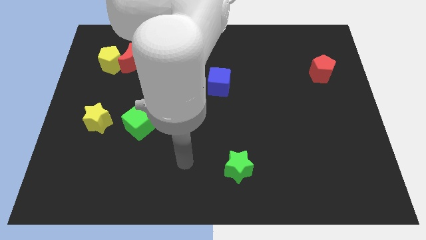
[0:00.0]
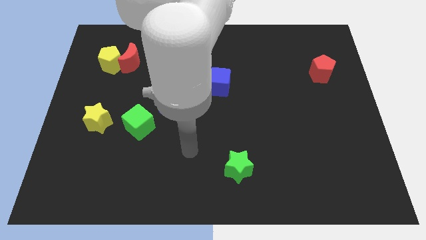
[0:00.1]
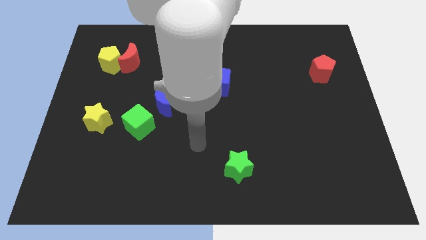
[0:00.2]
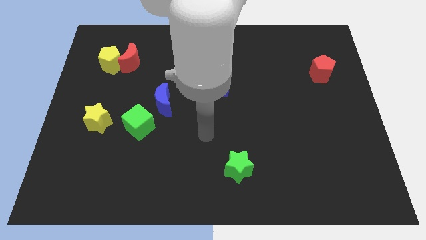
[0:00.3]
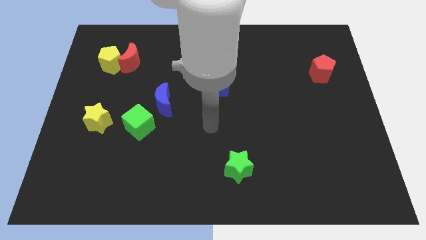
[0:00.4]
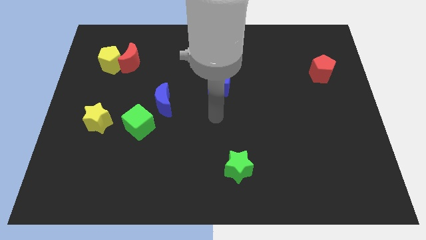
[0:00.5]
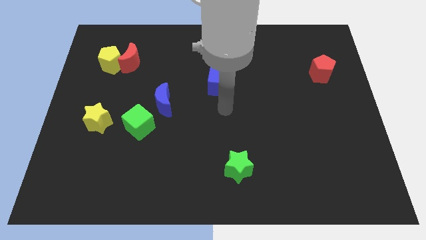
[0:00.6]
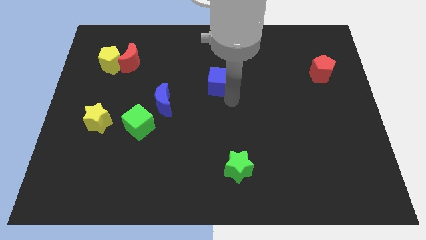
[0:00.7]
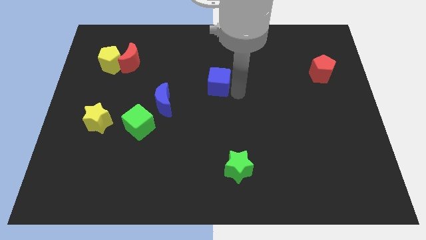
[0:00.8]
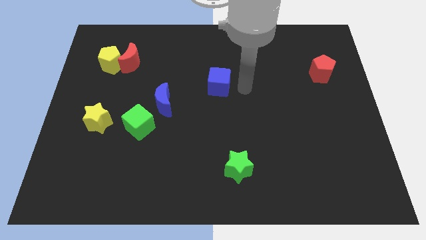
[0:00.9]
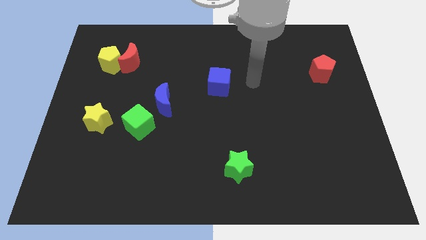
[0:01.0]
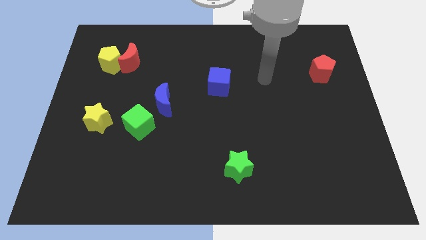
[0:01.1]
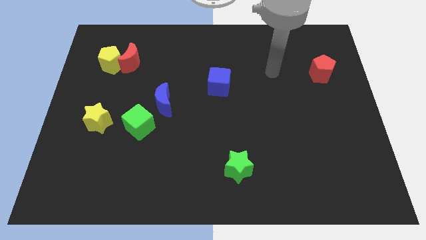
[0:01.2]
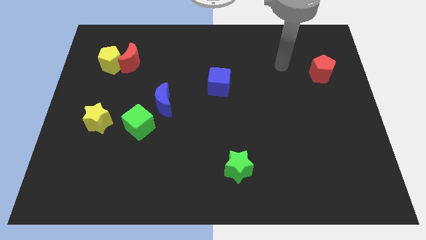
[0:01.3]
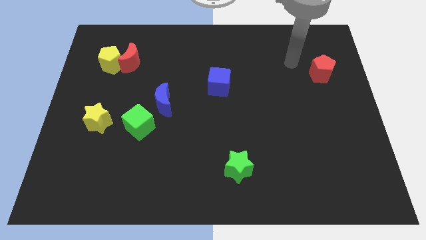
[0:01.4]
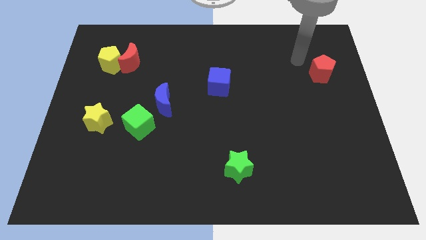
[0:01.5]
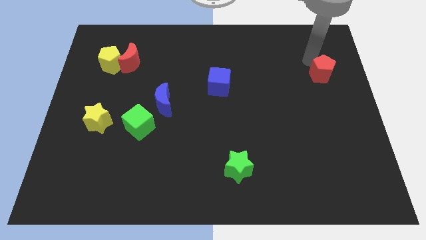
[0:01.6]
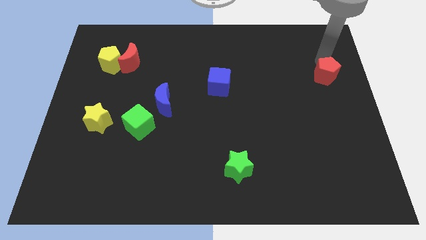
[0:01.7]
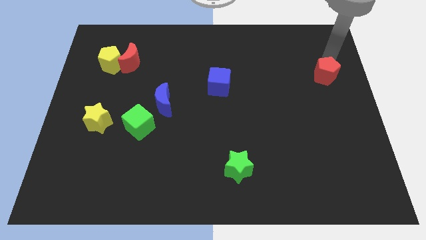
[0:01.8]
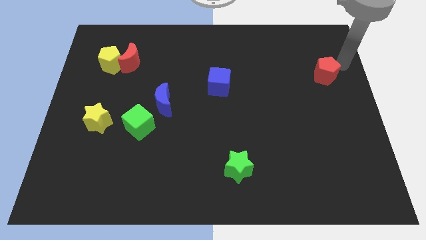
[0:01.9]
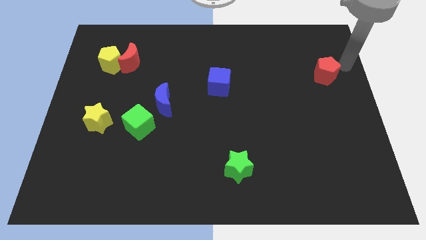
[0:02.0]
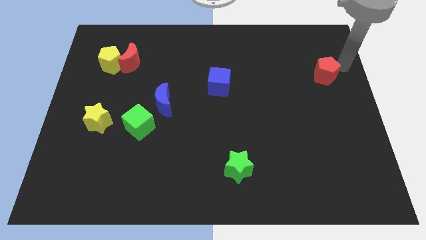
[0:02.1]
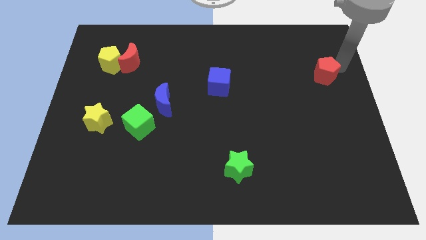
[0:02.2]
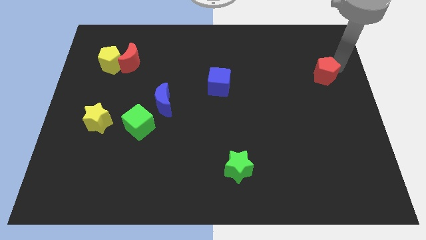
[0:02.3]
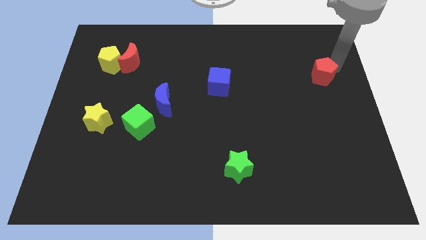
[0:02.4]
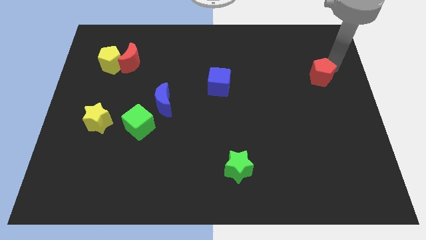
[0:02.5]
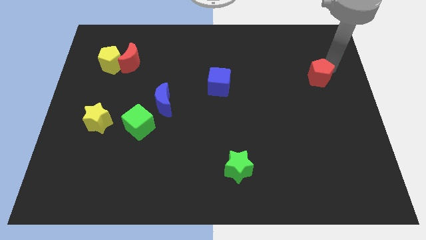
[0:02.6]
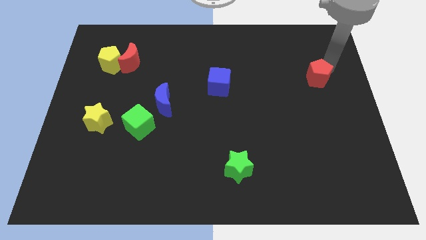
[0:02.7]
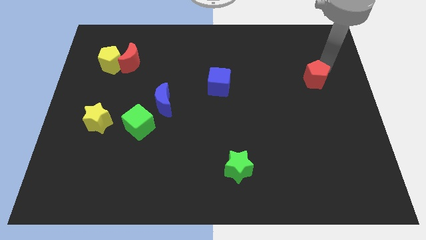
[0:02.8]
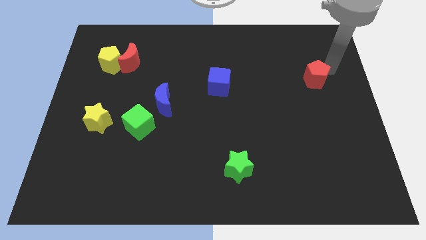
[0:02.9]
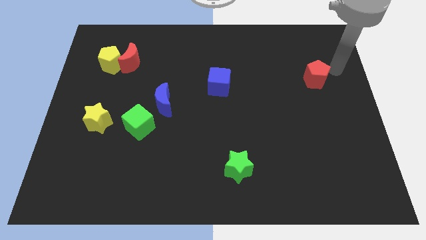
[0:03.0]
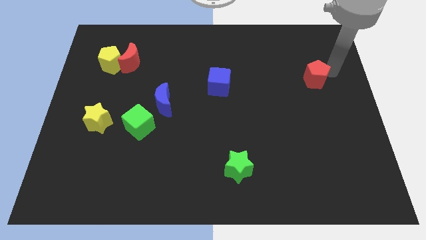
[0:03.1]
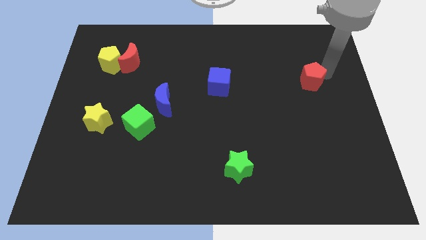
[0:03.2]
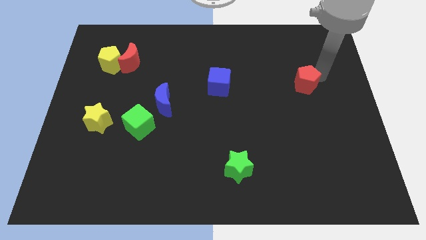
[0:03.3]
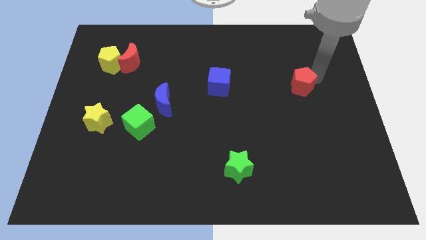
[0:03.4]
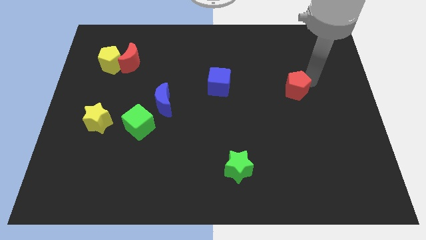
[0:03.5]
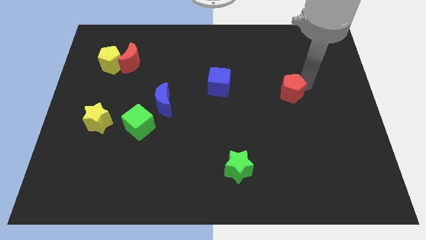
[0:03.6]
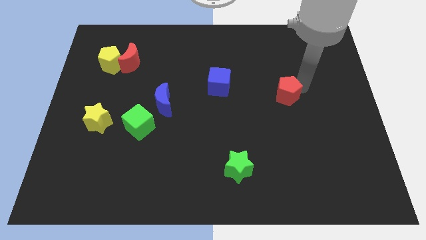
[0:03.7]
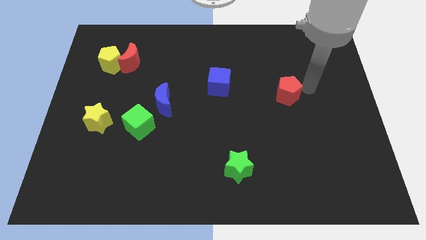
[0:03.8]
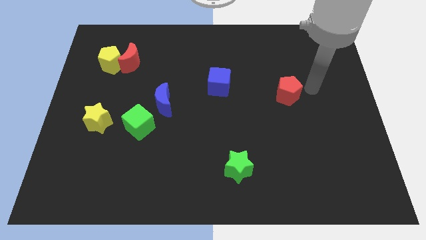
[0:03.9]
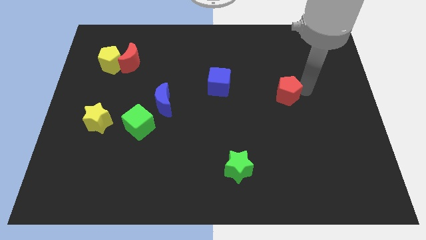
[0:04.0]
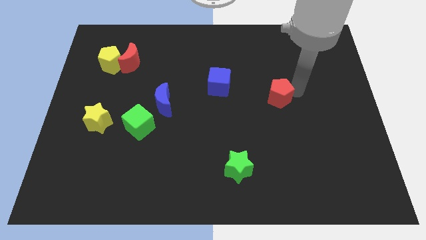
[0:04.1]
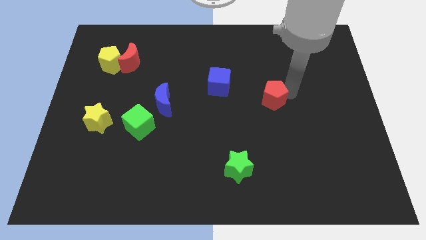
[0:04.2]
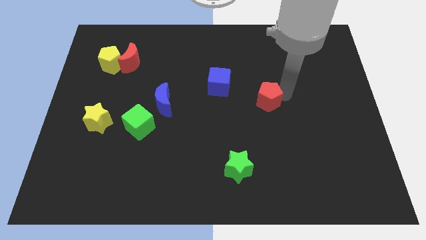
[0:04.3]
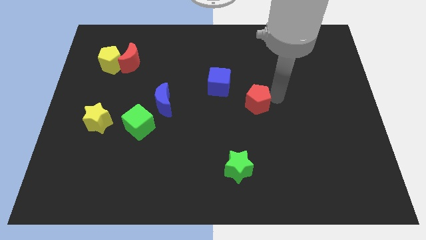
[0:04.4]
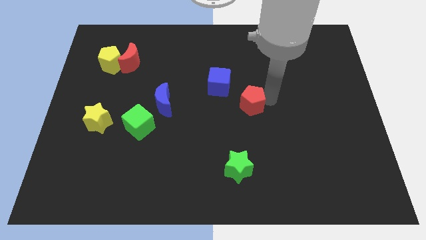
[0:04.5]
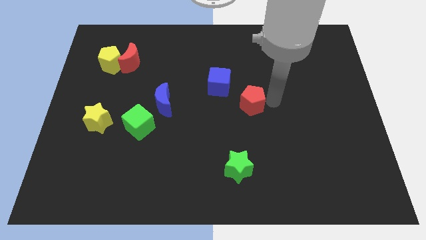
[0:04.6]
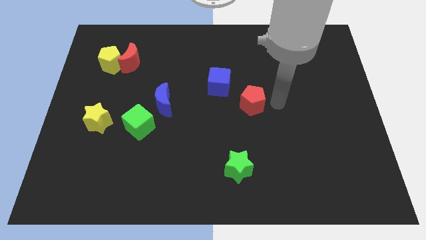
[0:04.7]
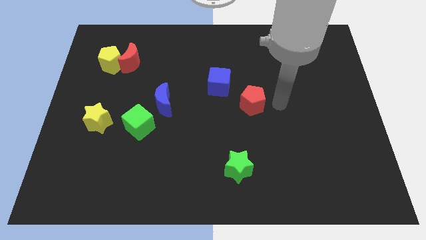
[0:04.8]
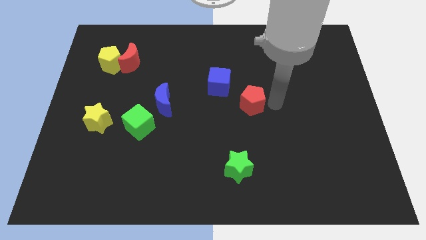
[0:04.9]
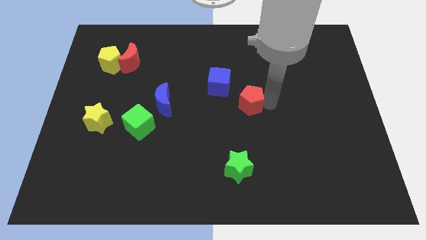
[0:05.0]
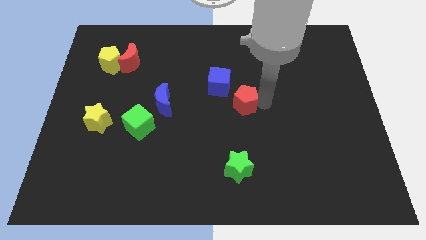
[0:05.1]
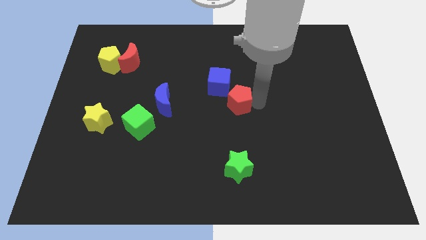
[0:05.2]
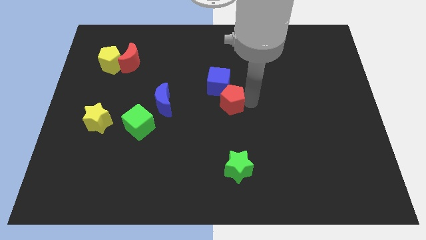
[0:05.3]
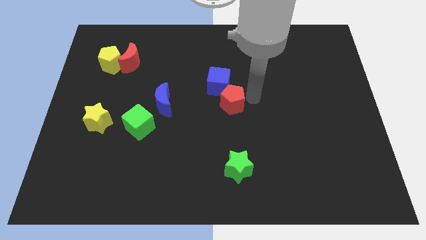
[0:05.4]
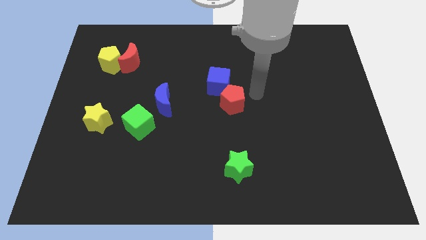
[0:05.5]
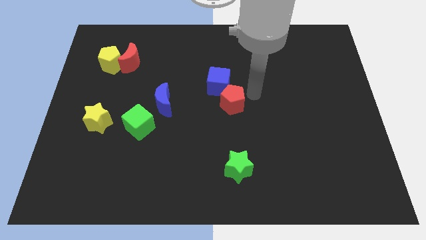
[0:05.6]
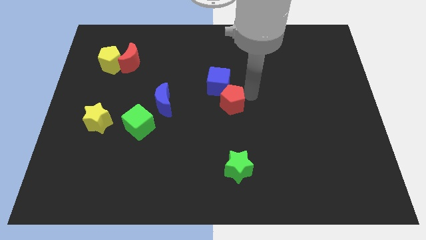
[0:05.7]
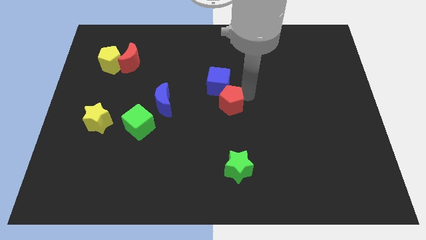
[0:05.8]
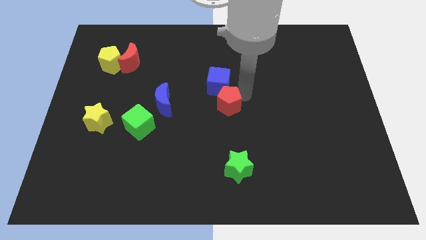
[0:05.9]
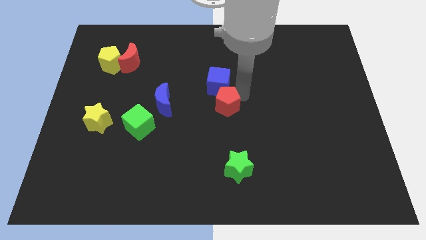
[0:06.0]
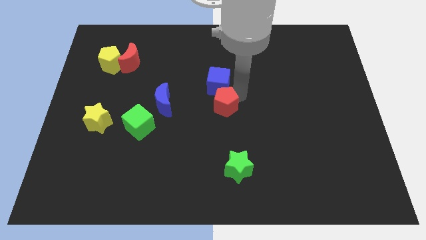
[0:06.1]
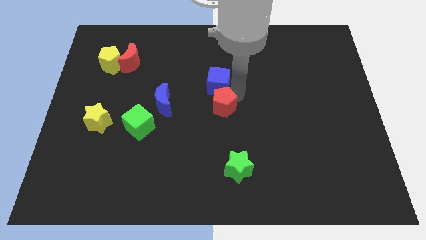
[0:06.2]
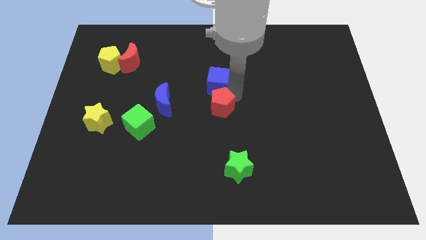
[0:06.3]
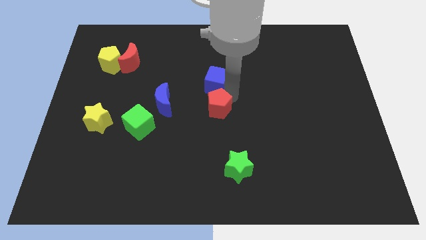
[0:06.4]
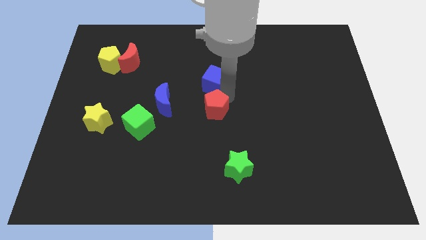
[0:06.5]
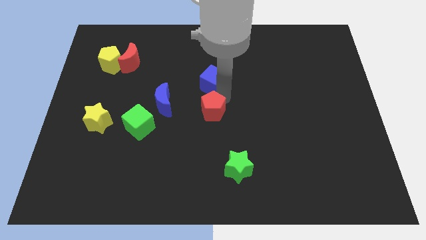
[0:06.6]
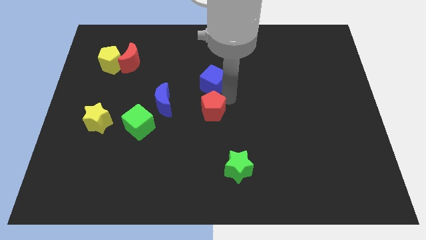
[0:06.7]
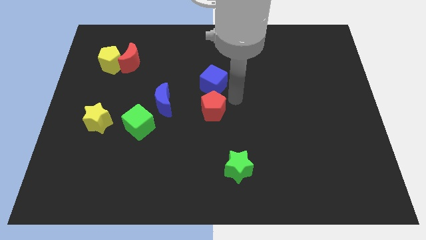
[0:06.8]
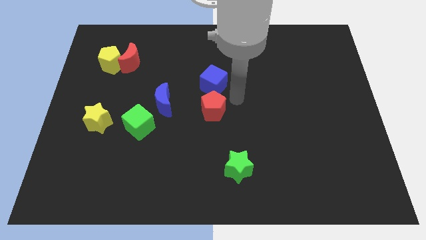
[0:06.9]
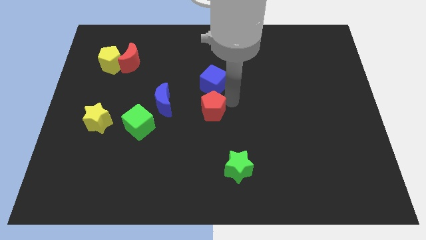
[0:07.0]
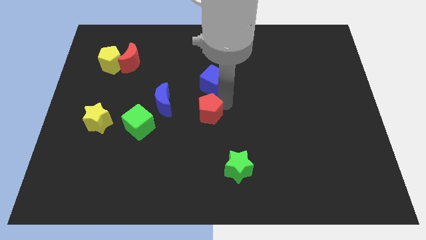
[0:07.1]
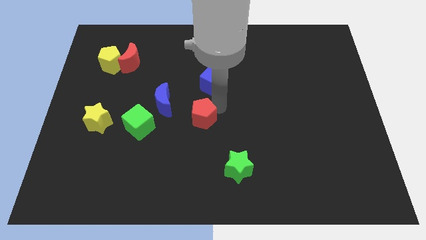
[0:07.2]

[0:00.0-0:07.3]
push the red pentagon diagonally down and to the right of the blue moon
